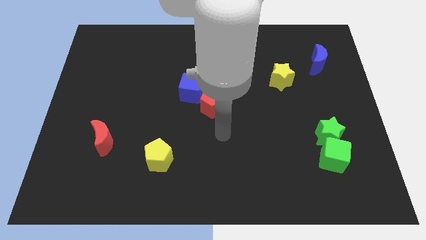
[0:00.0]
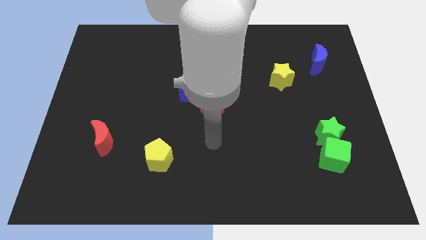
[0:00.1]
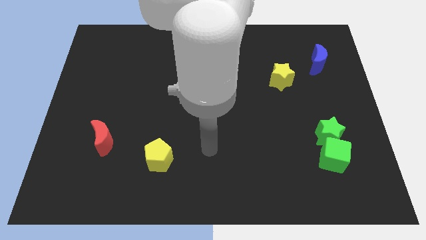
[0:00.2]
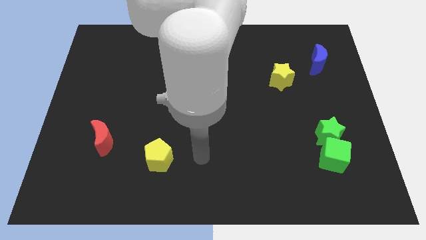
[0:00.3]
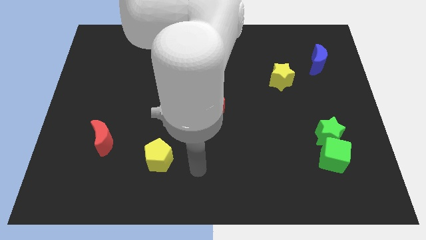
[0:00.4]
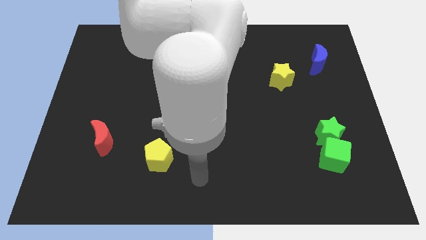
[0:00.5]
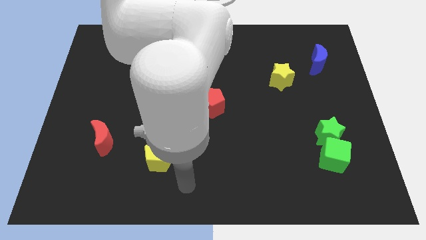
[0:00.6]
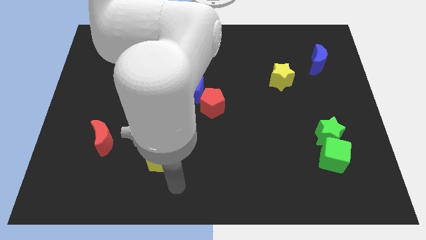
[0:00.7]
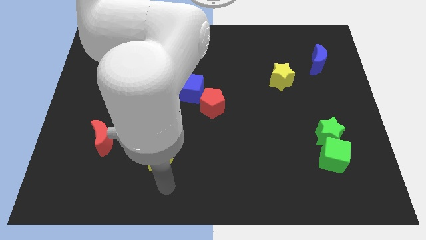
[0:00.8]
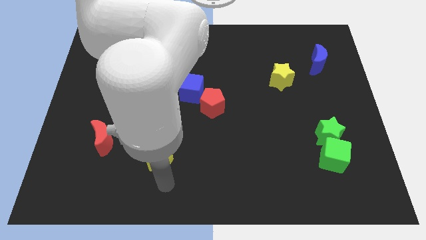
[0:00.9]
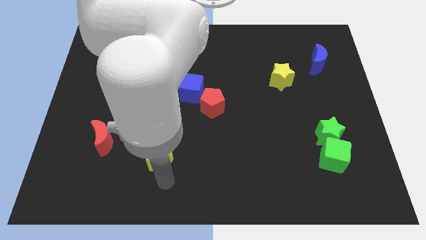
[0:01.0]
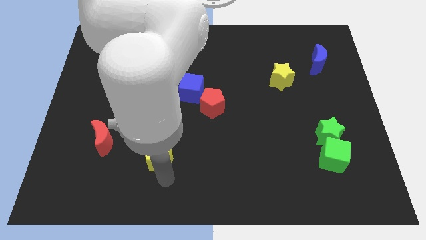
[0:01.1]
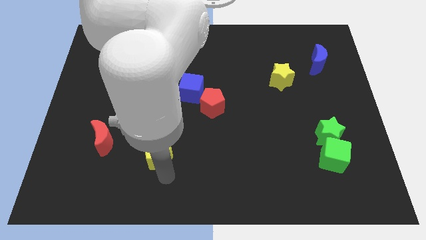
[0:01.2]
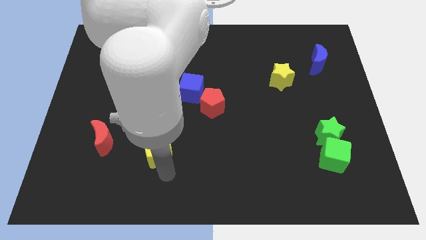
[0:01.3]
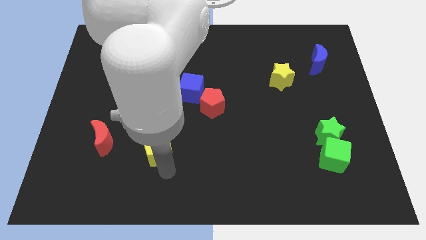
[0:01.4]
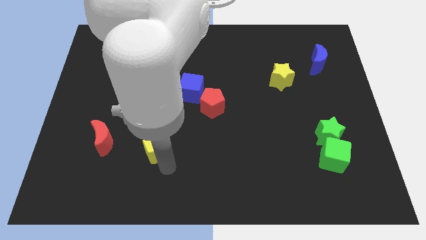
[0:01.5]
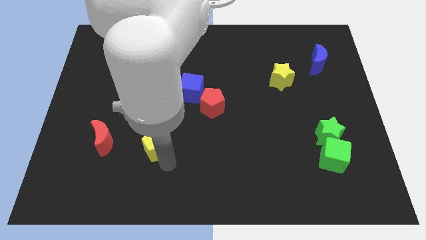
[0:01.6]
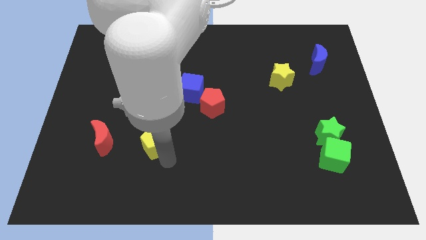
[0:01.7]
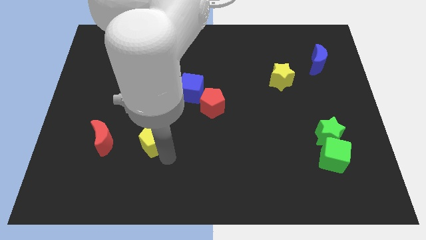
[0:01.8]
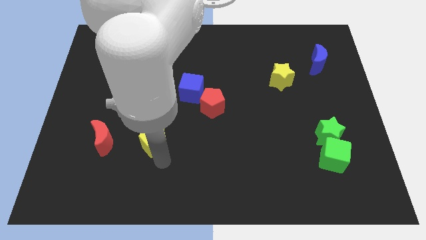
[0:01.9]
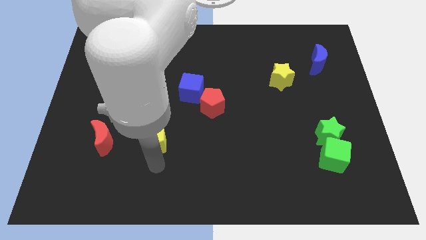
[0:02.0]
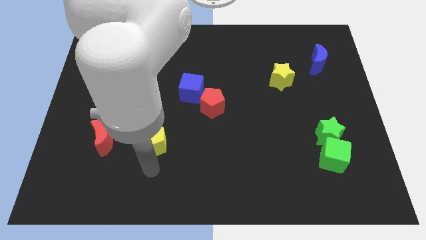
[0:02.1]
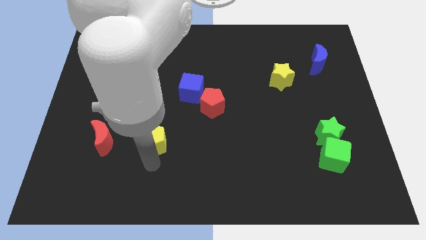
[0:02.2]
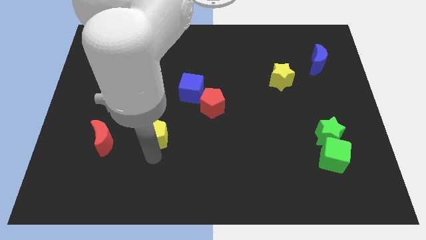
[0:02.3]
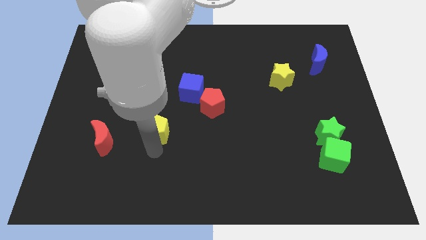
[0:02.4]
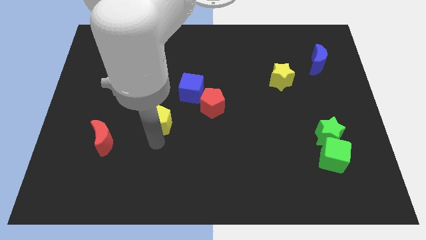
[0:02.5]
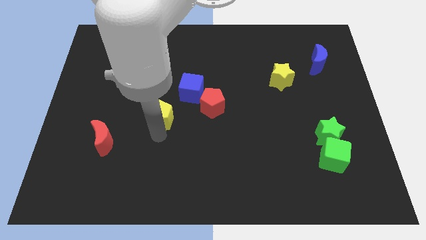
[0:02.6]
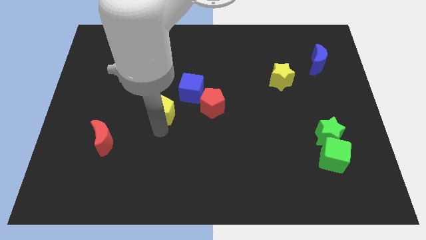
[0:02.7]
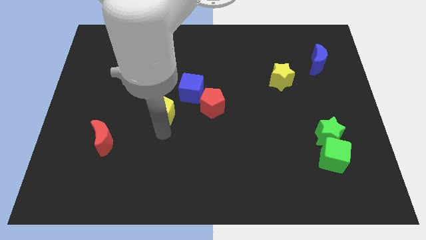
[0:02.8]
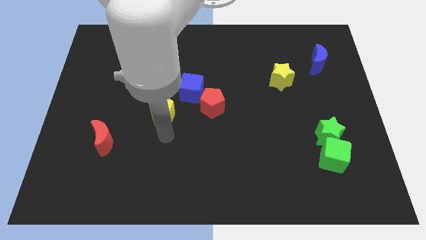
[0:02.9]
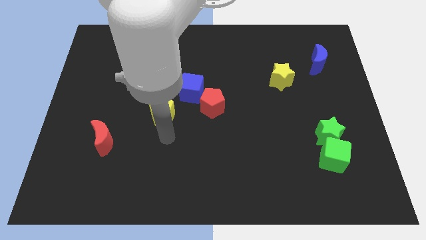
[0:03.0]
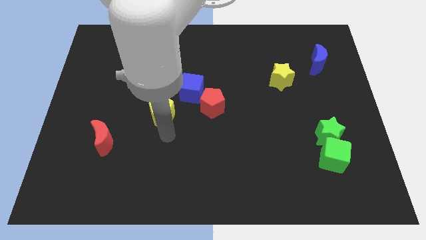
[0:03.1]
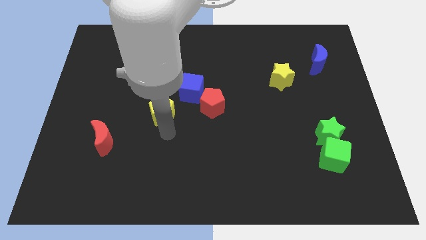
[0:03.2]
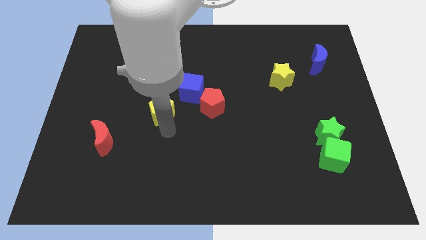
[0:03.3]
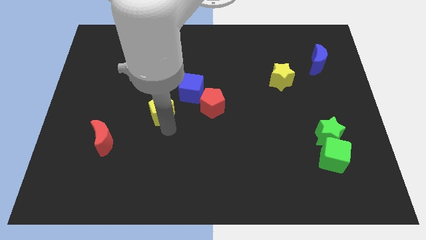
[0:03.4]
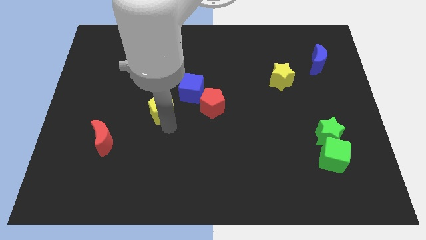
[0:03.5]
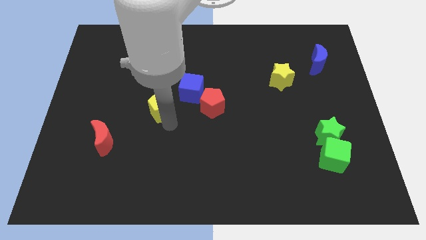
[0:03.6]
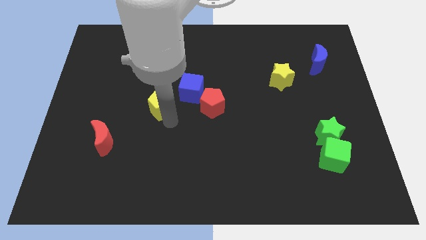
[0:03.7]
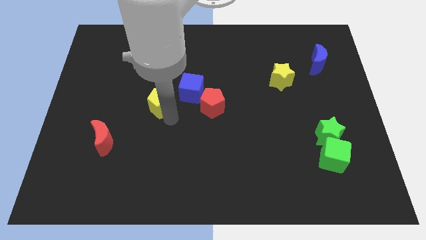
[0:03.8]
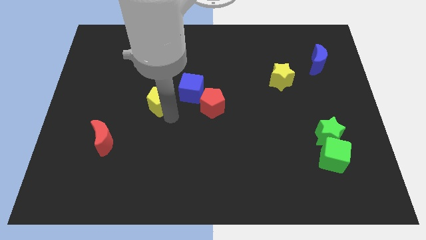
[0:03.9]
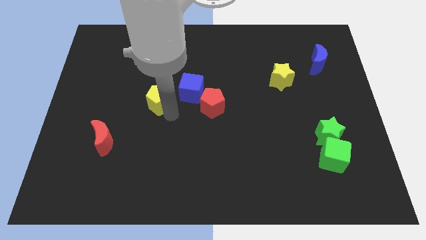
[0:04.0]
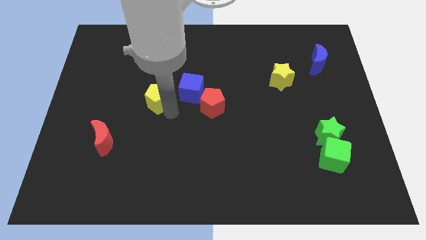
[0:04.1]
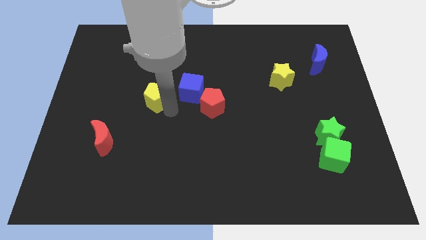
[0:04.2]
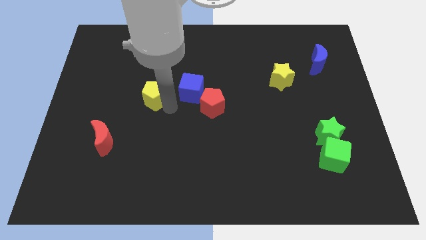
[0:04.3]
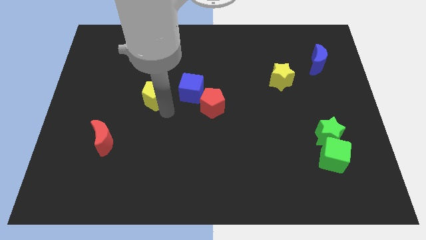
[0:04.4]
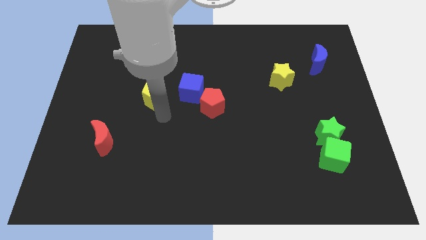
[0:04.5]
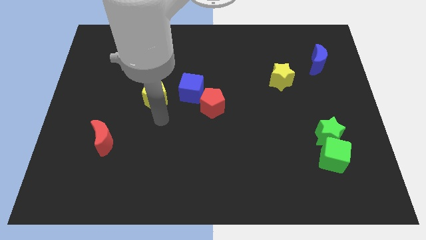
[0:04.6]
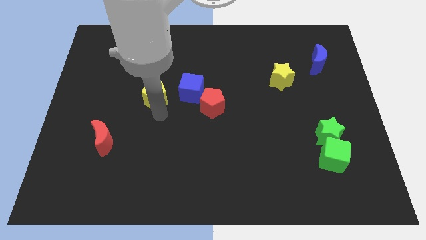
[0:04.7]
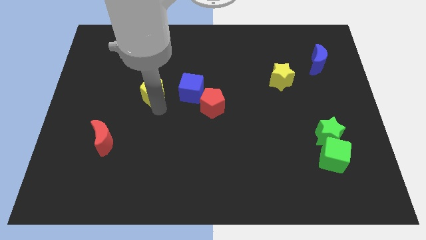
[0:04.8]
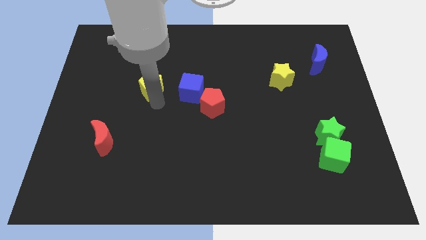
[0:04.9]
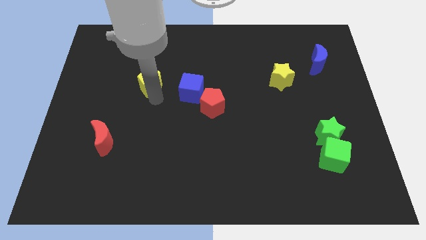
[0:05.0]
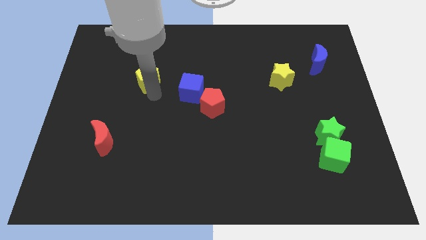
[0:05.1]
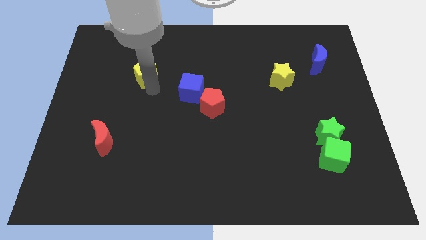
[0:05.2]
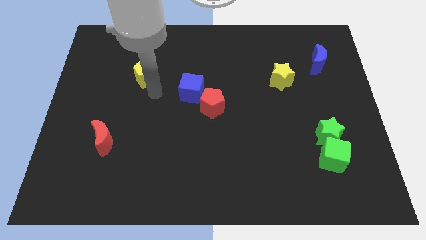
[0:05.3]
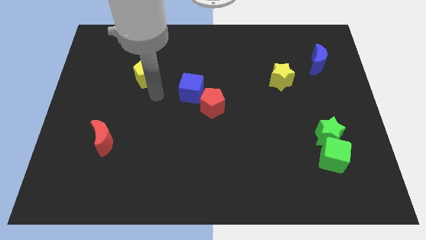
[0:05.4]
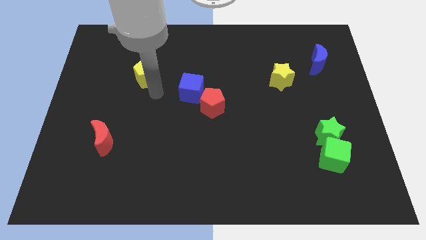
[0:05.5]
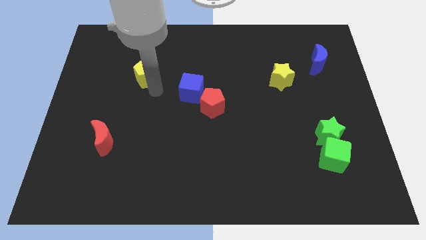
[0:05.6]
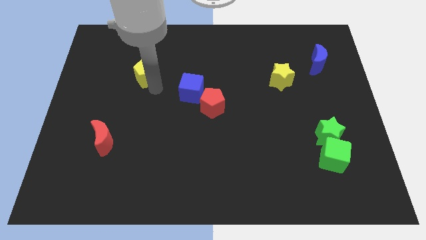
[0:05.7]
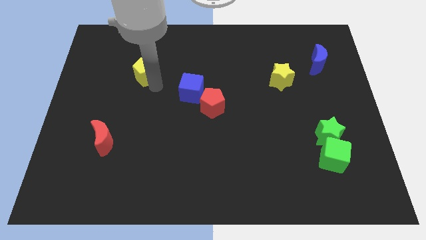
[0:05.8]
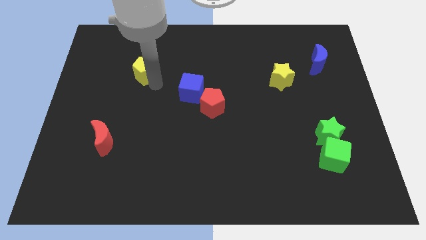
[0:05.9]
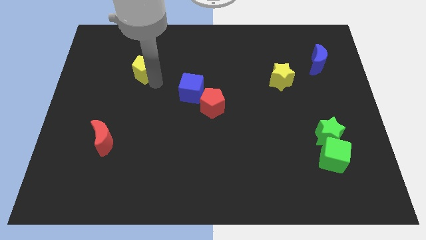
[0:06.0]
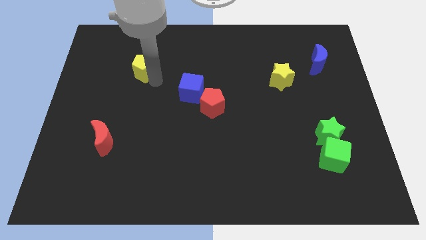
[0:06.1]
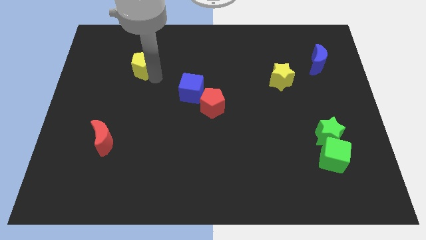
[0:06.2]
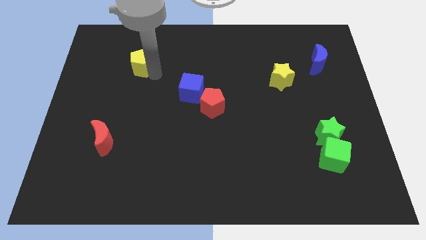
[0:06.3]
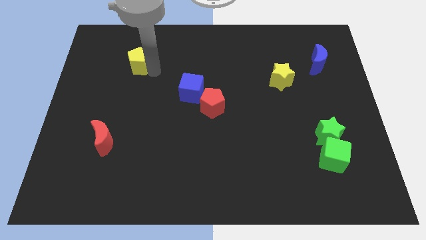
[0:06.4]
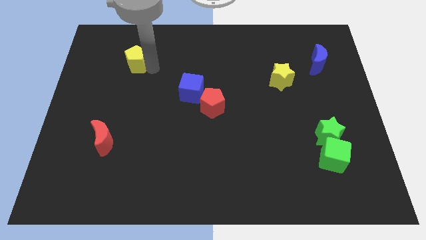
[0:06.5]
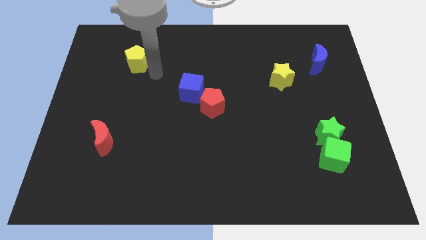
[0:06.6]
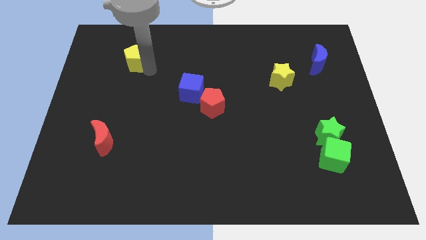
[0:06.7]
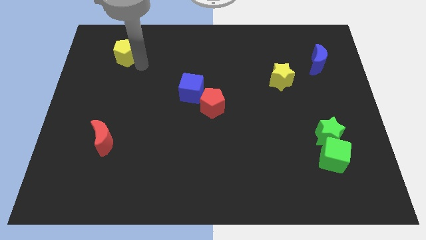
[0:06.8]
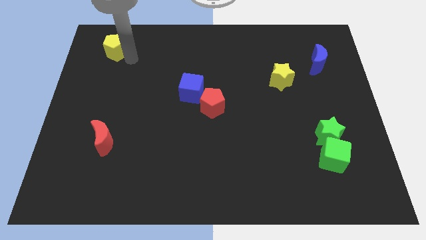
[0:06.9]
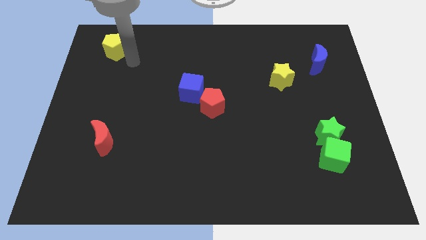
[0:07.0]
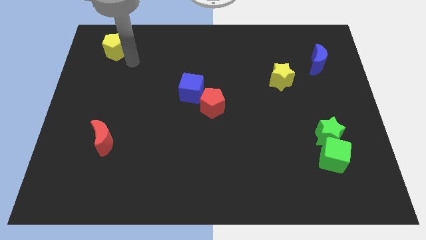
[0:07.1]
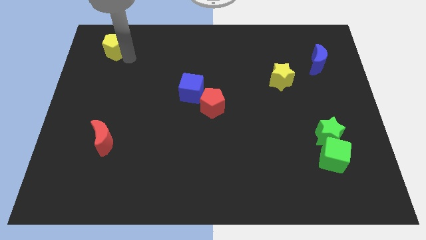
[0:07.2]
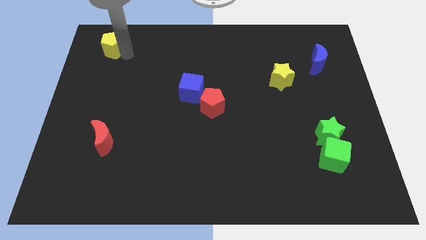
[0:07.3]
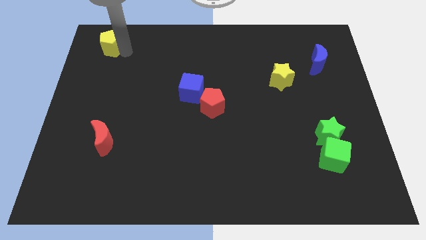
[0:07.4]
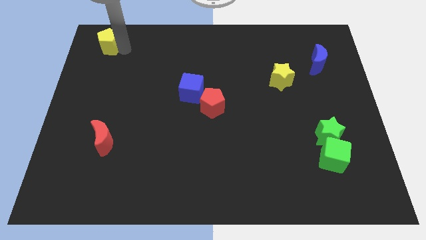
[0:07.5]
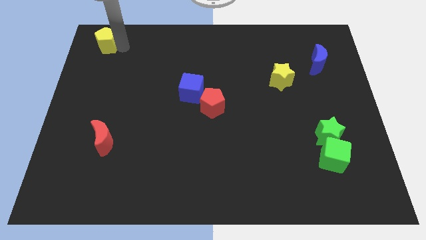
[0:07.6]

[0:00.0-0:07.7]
move the yellow pentagon to the upper left corner
